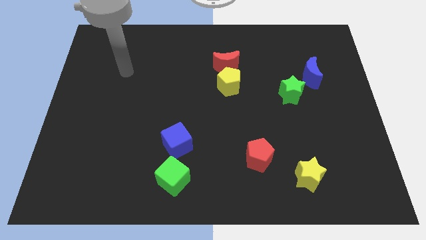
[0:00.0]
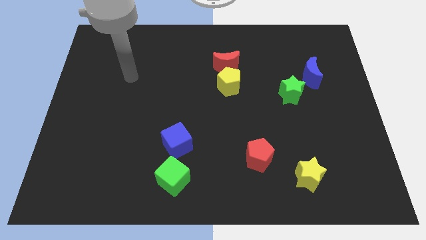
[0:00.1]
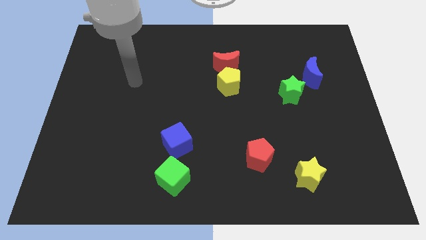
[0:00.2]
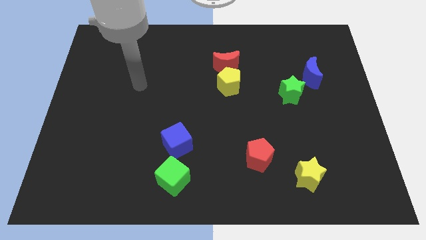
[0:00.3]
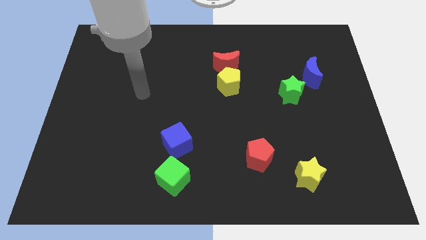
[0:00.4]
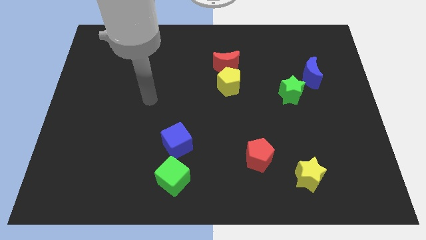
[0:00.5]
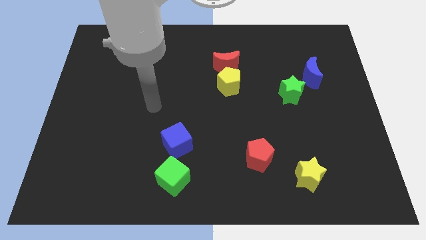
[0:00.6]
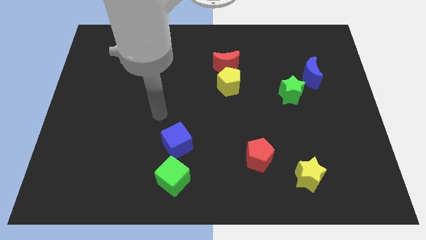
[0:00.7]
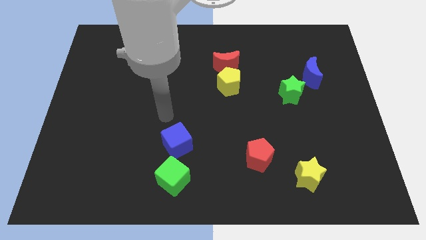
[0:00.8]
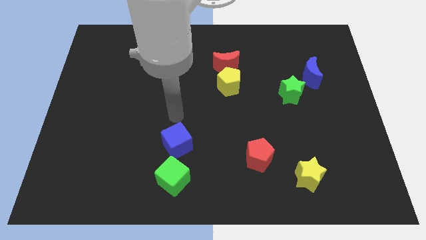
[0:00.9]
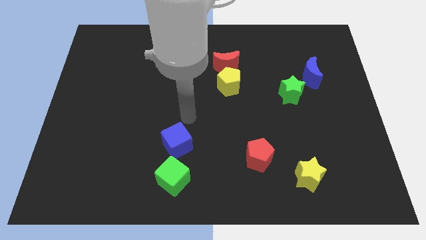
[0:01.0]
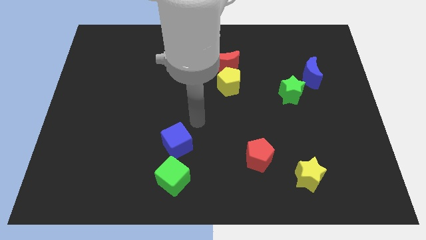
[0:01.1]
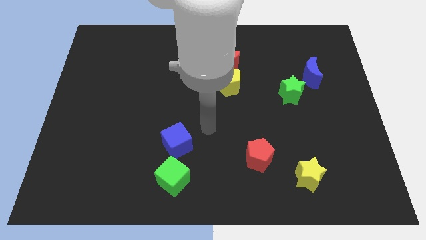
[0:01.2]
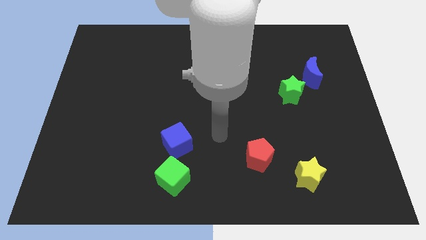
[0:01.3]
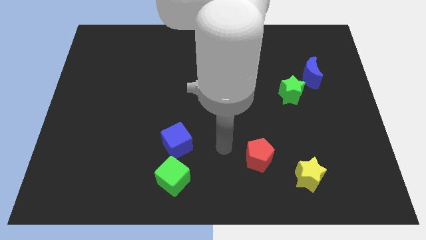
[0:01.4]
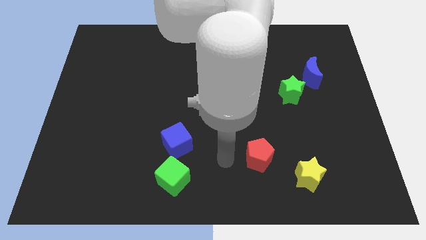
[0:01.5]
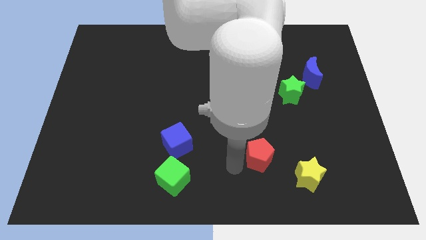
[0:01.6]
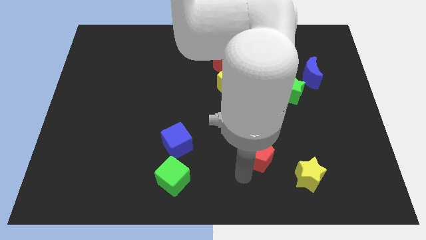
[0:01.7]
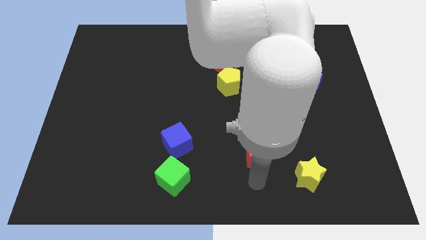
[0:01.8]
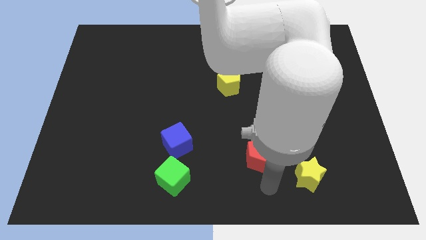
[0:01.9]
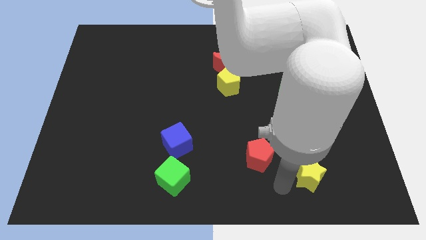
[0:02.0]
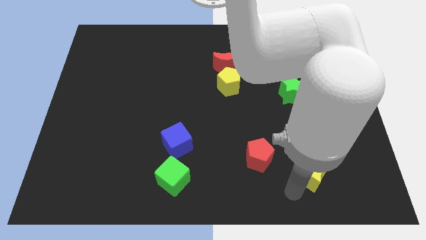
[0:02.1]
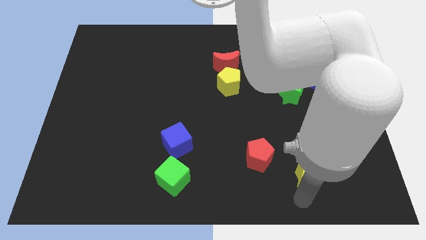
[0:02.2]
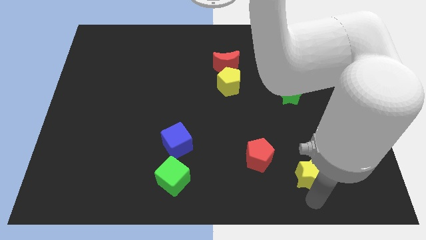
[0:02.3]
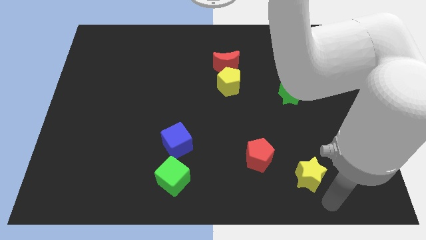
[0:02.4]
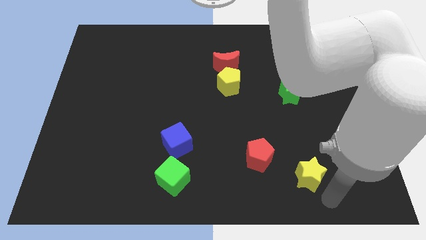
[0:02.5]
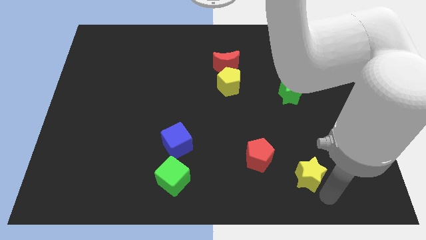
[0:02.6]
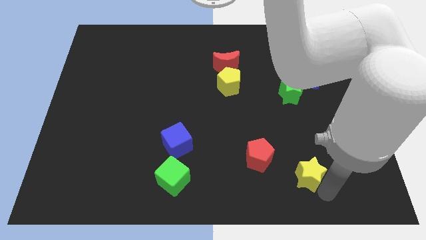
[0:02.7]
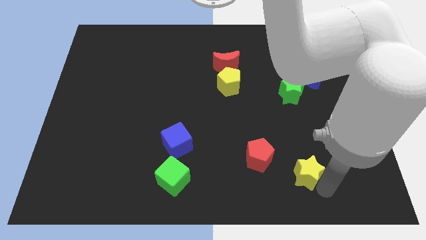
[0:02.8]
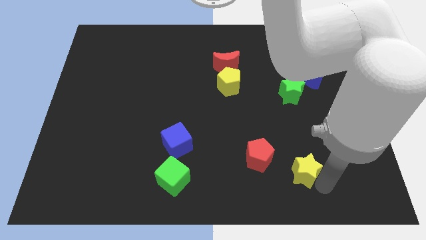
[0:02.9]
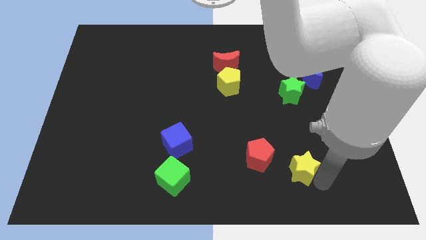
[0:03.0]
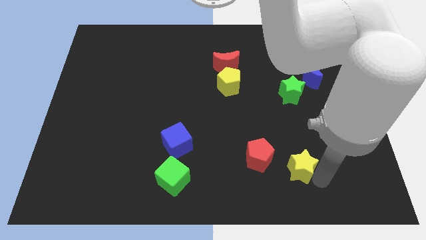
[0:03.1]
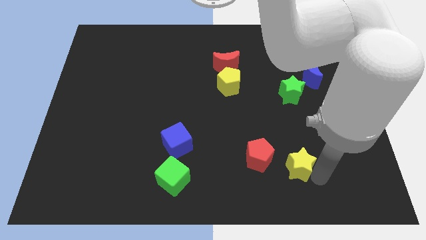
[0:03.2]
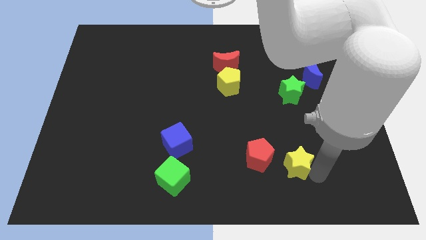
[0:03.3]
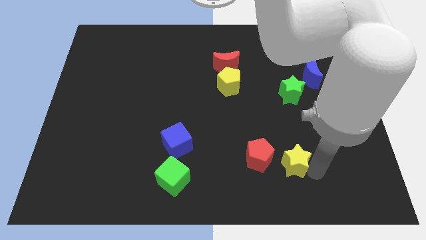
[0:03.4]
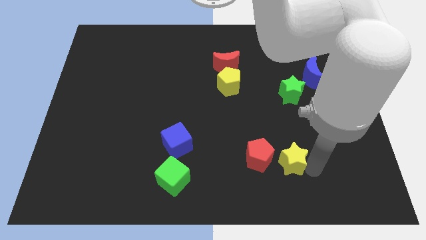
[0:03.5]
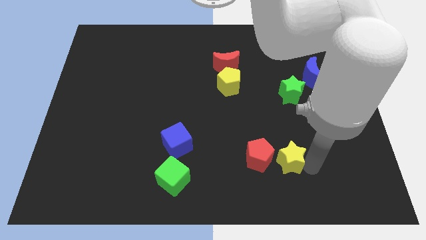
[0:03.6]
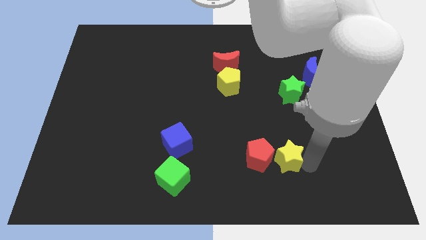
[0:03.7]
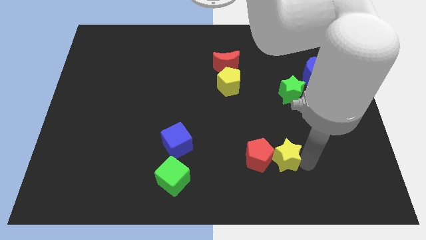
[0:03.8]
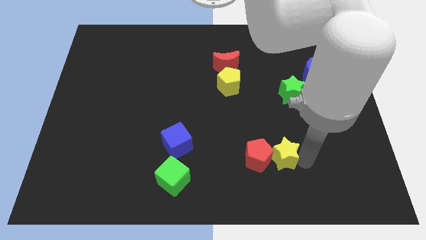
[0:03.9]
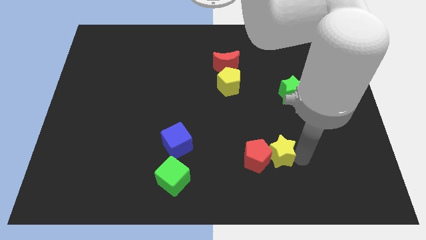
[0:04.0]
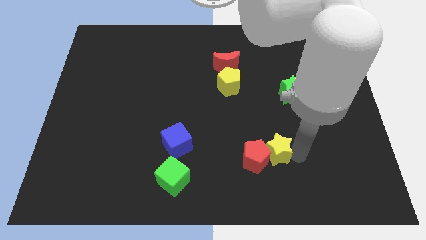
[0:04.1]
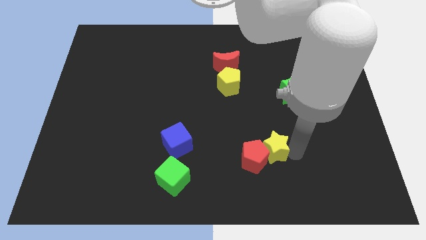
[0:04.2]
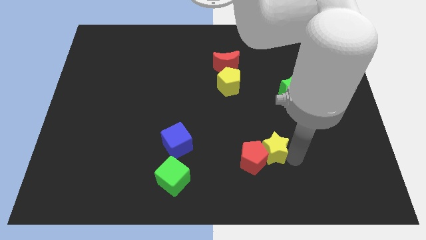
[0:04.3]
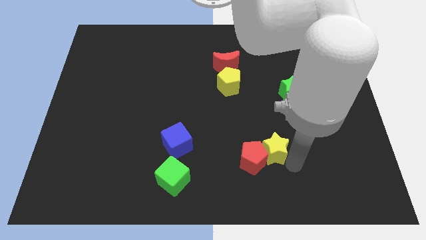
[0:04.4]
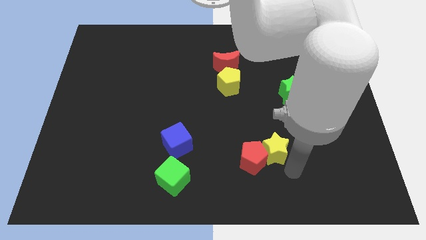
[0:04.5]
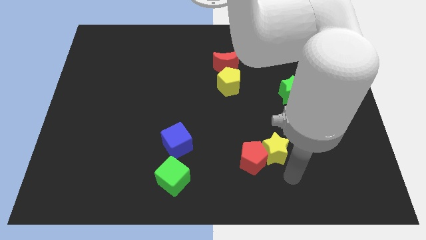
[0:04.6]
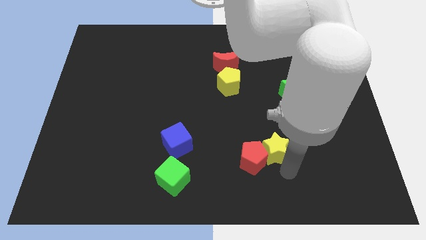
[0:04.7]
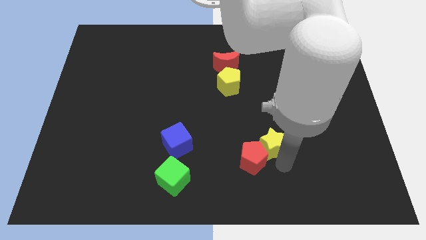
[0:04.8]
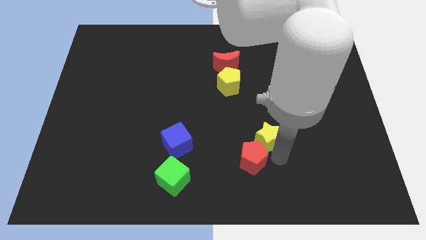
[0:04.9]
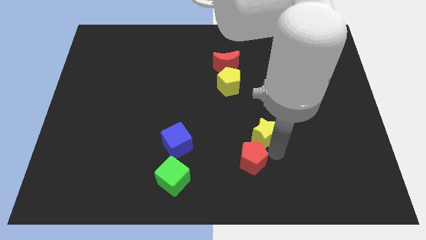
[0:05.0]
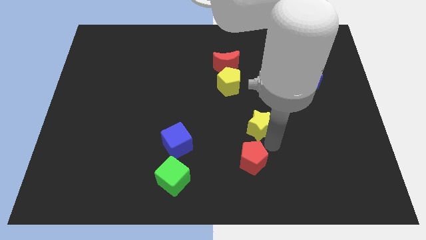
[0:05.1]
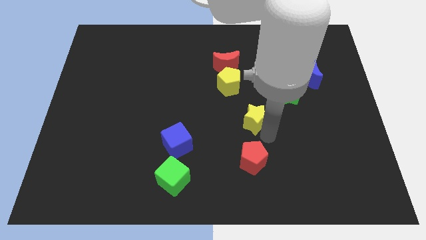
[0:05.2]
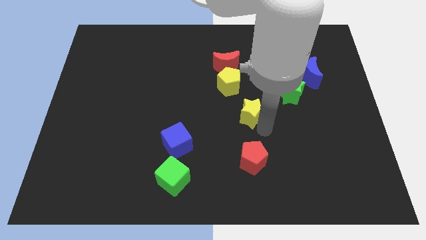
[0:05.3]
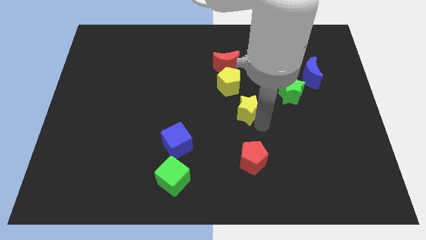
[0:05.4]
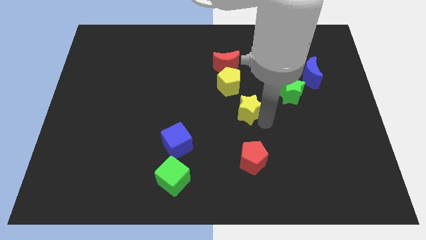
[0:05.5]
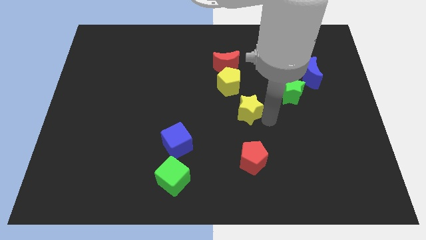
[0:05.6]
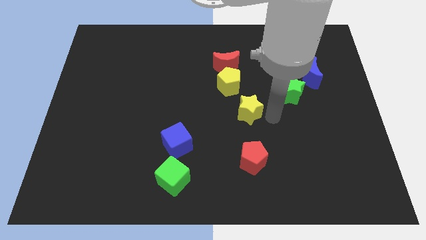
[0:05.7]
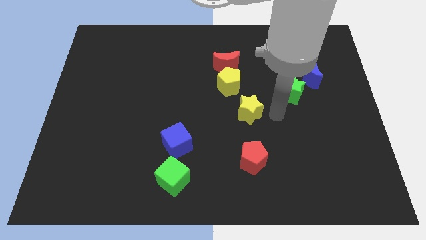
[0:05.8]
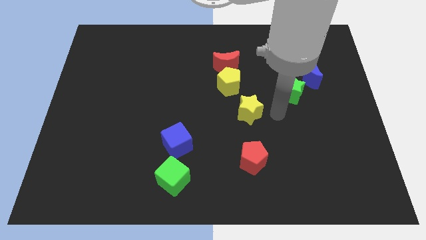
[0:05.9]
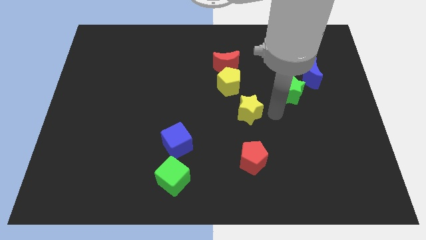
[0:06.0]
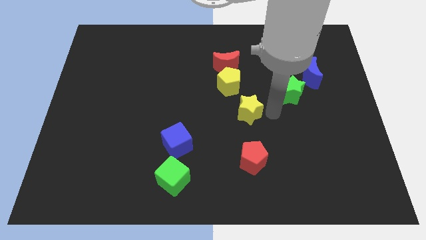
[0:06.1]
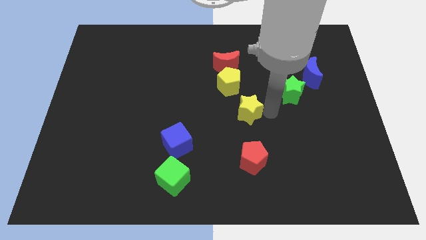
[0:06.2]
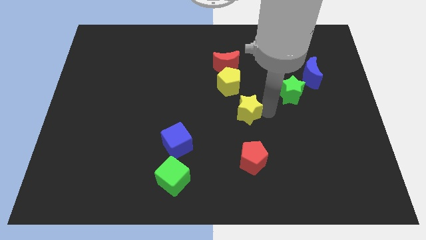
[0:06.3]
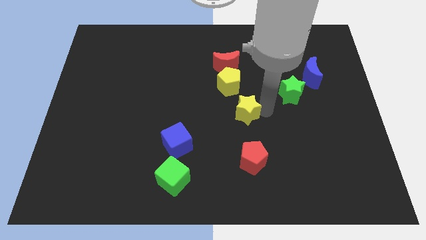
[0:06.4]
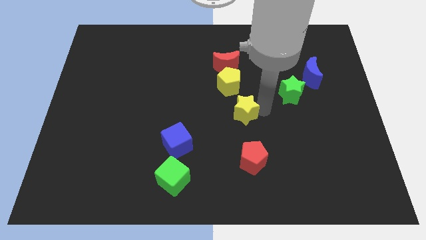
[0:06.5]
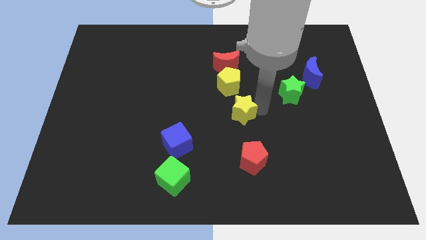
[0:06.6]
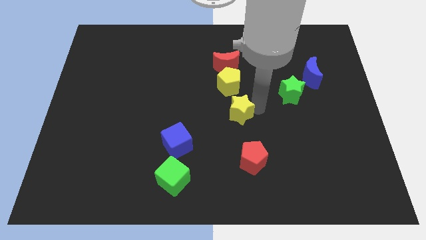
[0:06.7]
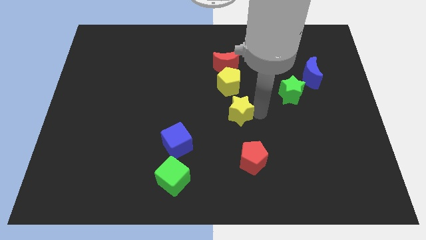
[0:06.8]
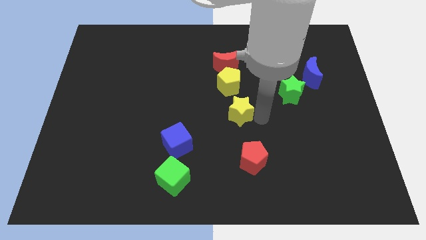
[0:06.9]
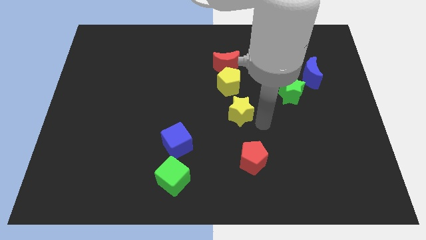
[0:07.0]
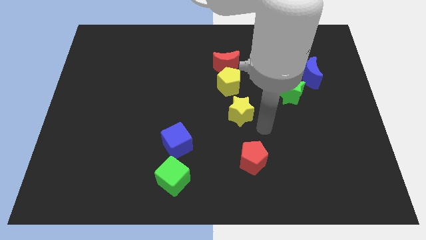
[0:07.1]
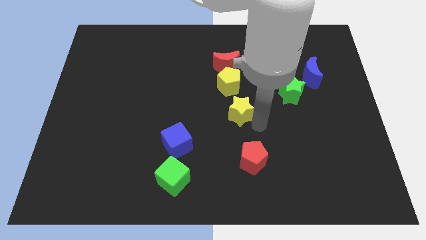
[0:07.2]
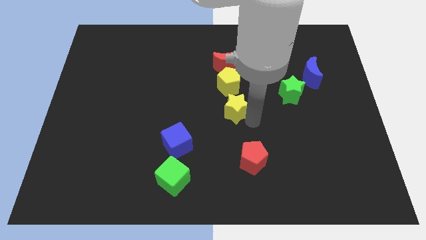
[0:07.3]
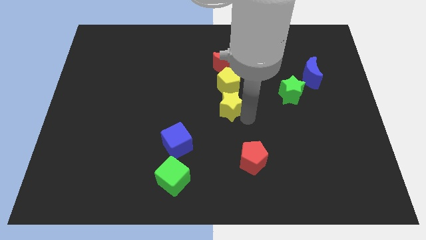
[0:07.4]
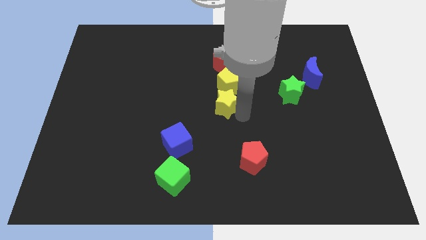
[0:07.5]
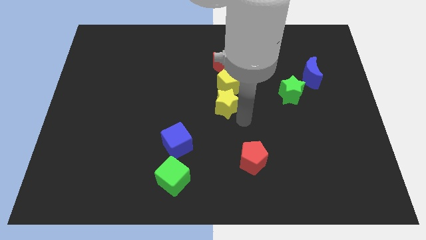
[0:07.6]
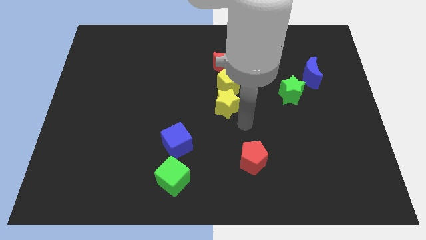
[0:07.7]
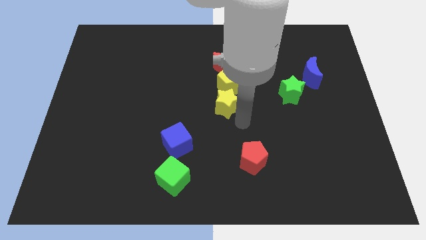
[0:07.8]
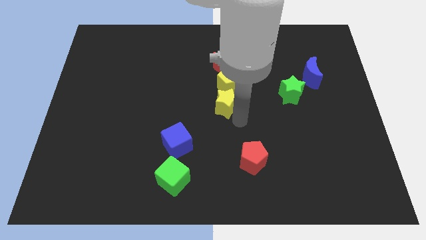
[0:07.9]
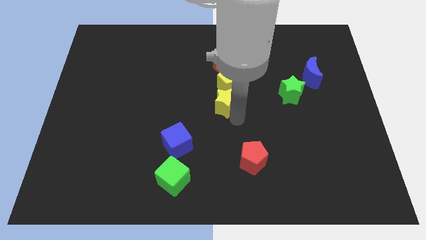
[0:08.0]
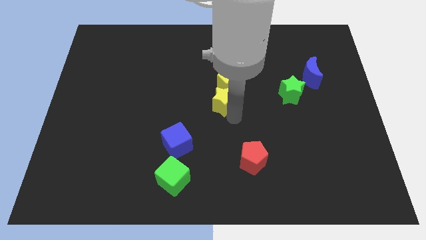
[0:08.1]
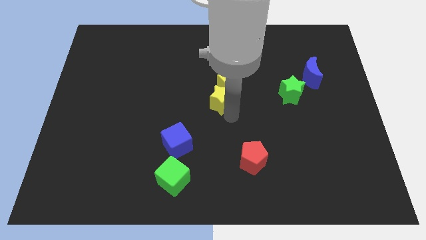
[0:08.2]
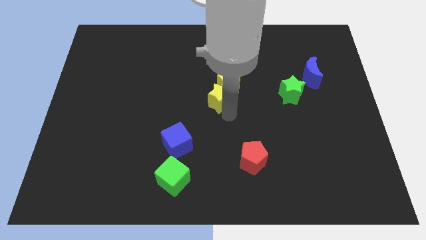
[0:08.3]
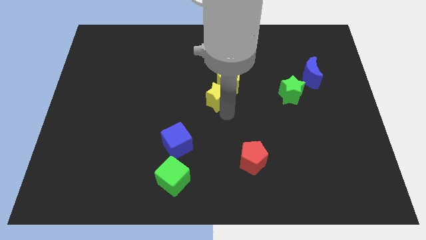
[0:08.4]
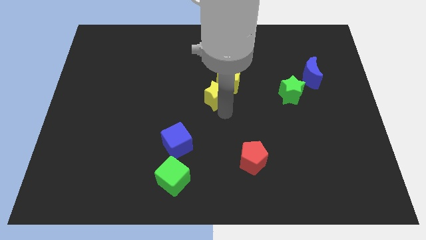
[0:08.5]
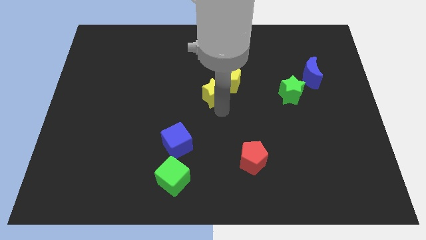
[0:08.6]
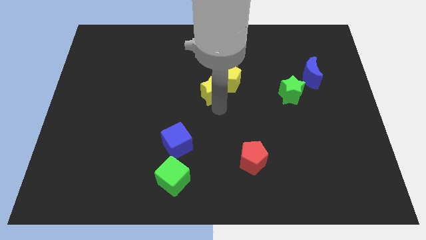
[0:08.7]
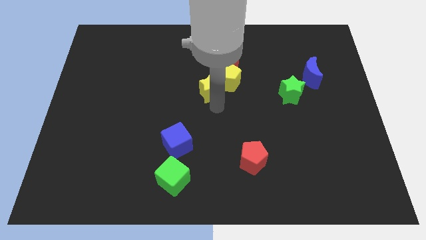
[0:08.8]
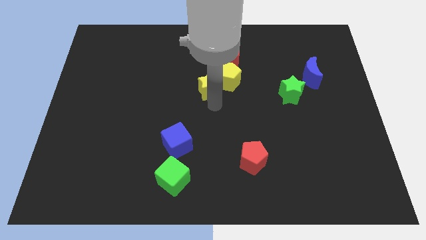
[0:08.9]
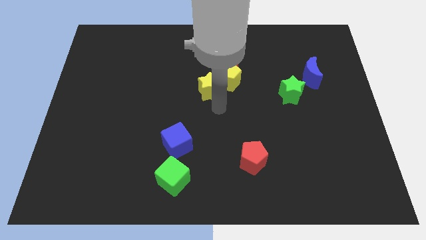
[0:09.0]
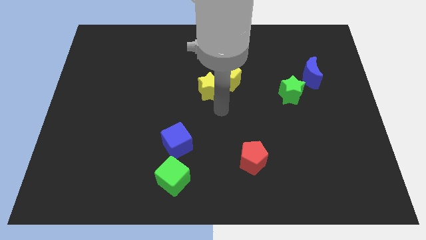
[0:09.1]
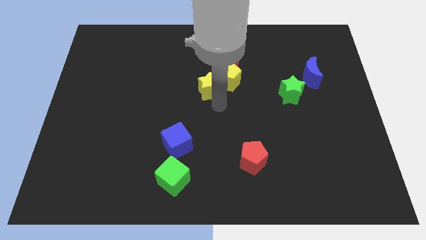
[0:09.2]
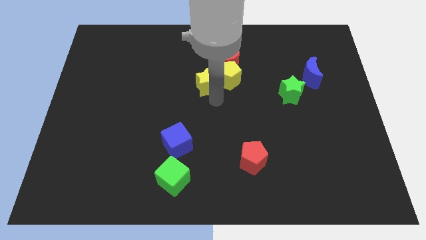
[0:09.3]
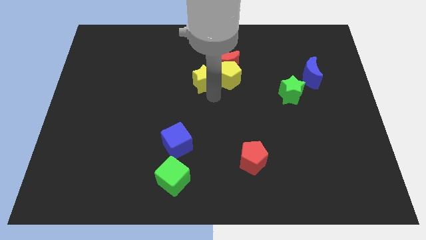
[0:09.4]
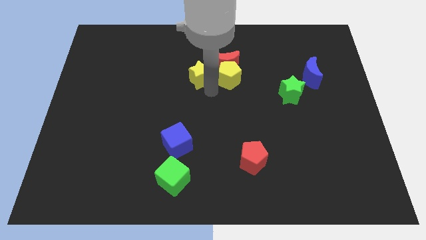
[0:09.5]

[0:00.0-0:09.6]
push the yellow star to the left of the red moon
